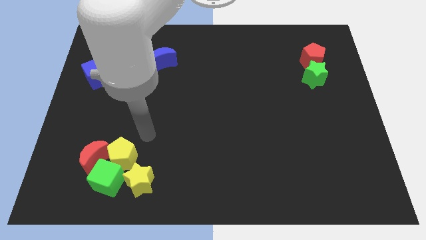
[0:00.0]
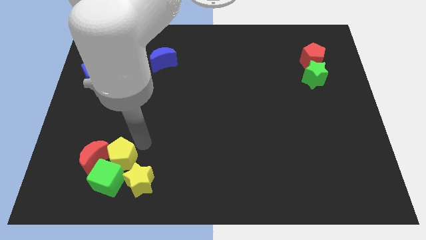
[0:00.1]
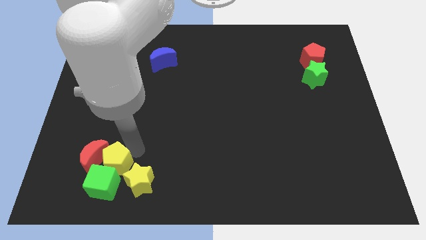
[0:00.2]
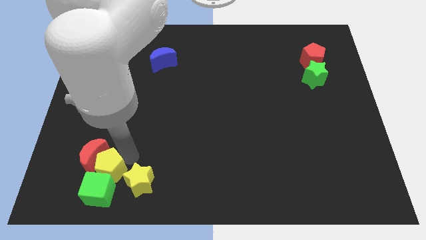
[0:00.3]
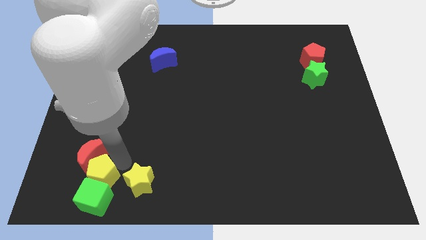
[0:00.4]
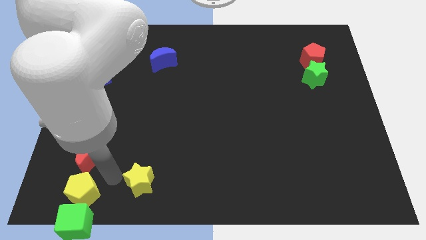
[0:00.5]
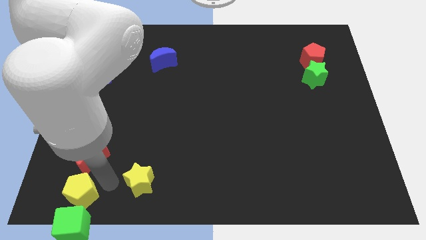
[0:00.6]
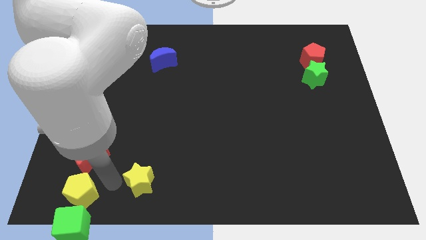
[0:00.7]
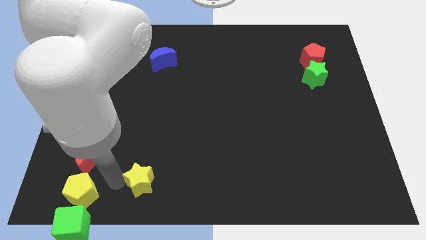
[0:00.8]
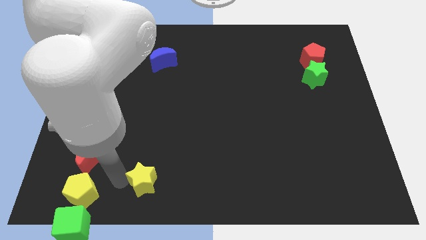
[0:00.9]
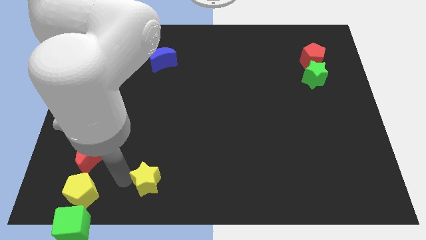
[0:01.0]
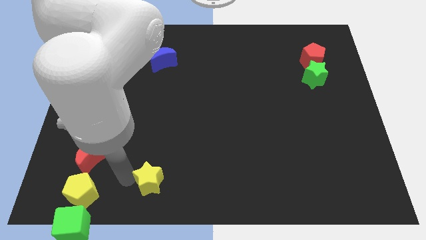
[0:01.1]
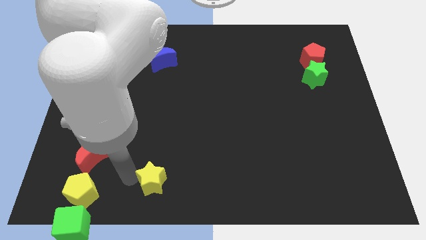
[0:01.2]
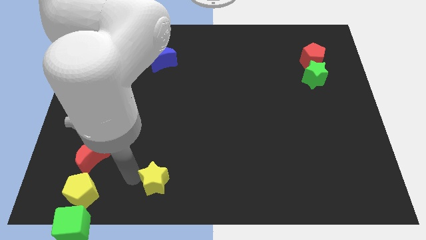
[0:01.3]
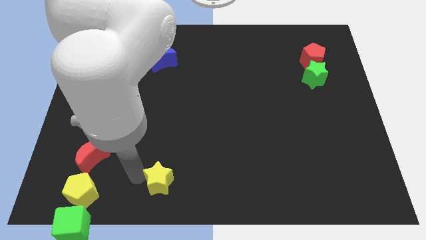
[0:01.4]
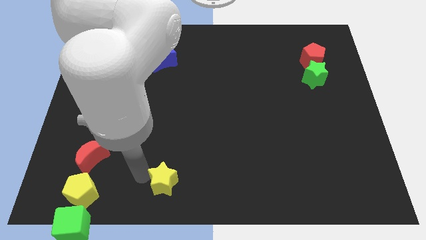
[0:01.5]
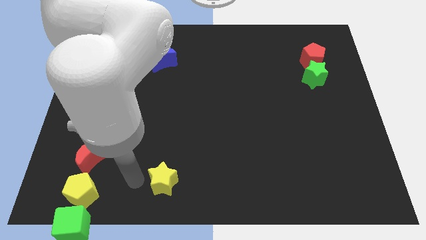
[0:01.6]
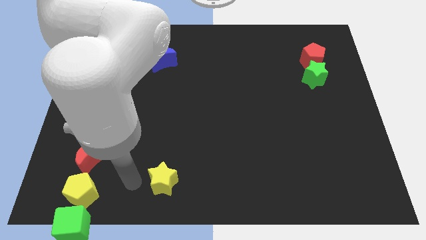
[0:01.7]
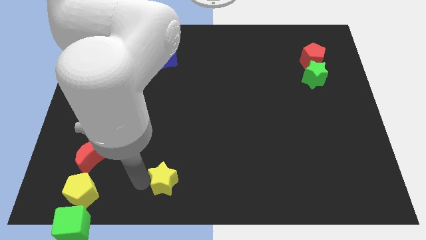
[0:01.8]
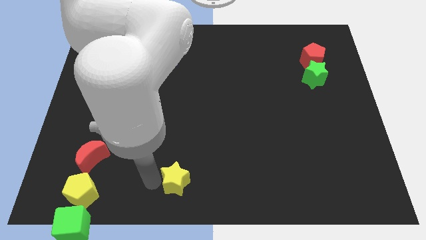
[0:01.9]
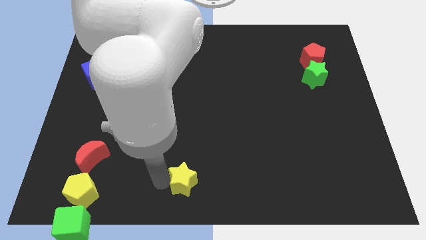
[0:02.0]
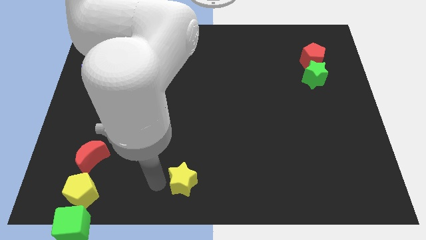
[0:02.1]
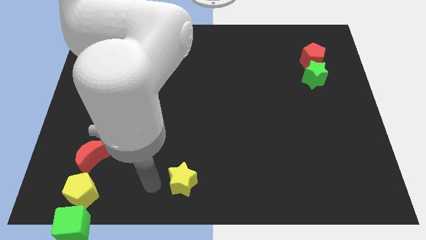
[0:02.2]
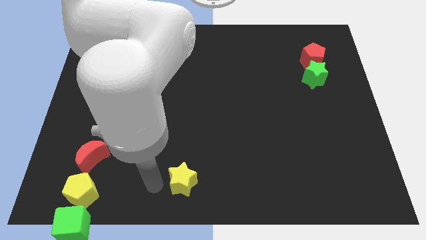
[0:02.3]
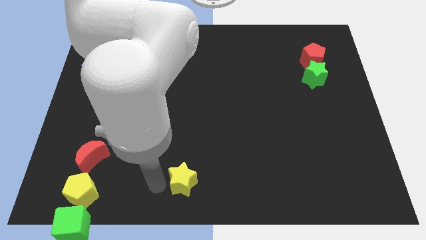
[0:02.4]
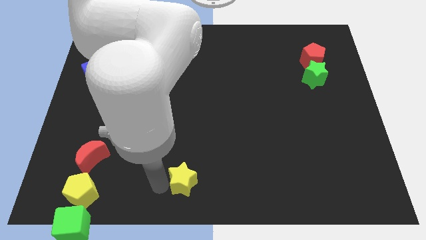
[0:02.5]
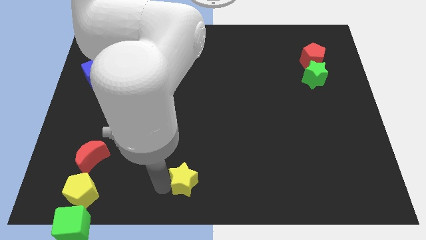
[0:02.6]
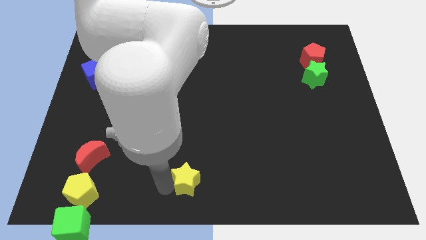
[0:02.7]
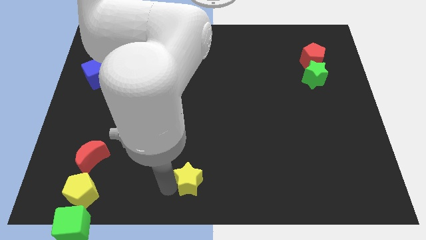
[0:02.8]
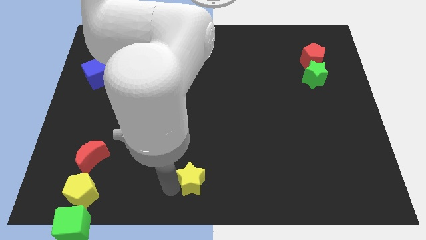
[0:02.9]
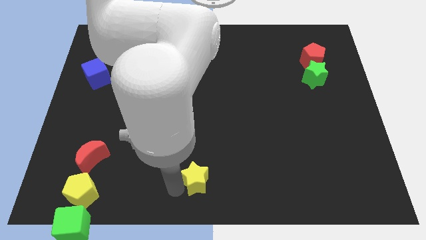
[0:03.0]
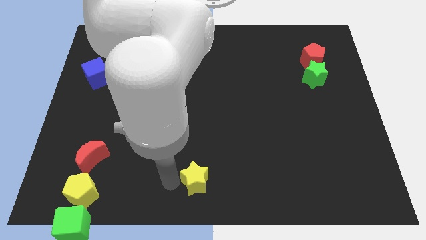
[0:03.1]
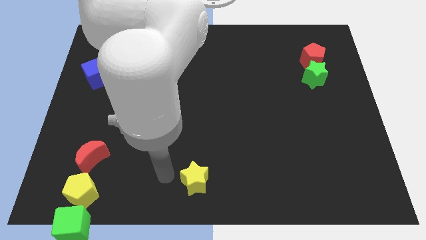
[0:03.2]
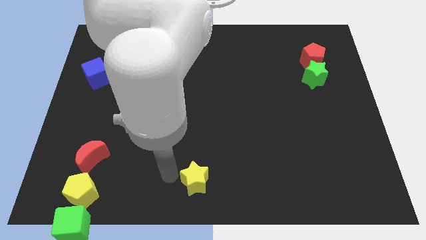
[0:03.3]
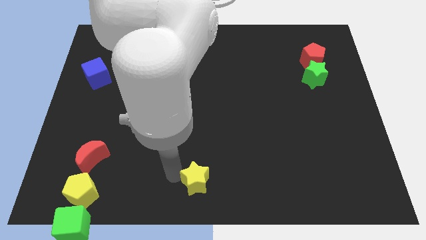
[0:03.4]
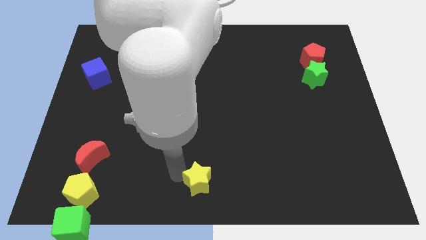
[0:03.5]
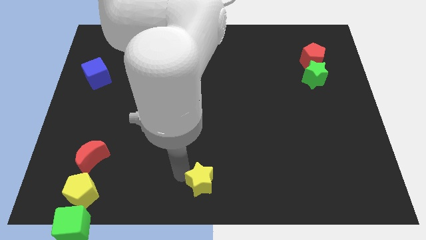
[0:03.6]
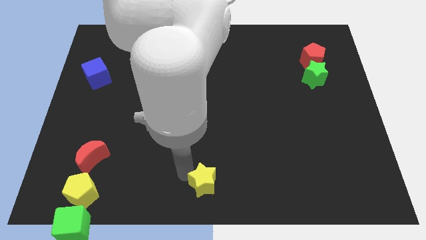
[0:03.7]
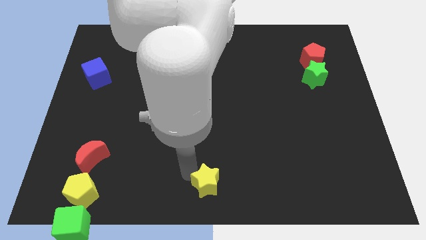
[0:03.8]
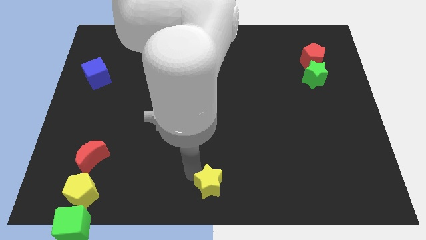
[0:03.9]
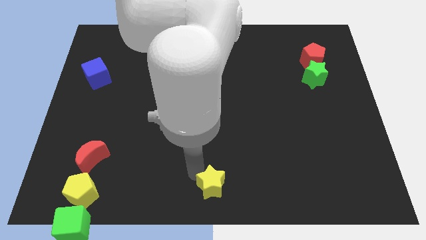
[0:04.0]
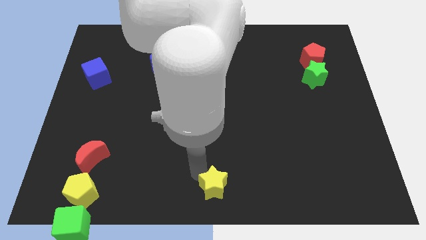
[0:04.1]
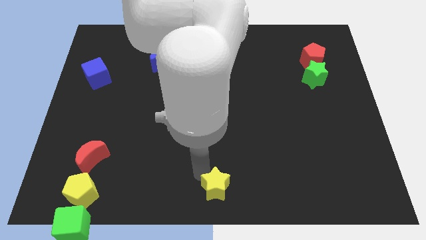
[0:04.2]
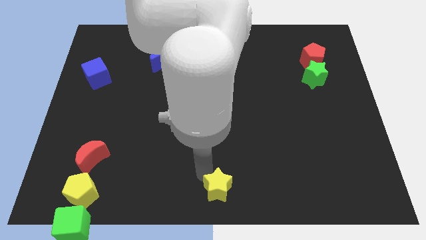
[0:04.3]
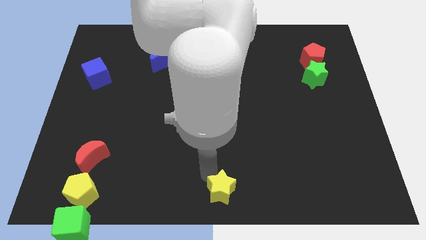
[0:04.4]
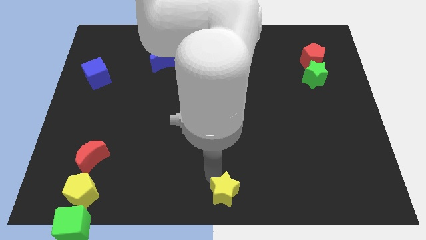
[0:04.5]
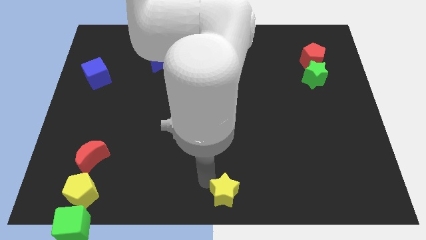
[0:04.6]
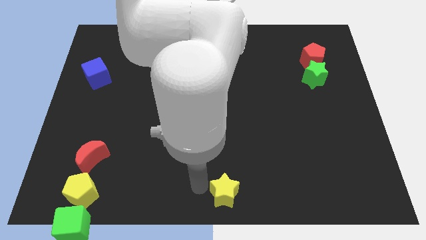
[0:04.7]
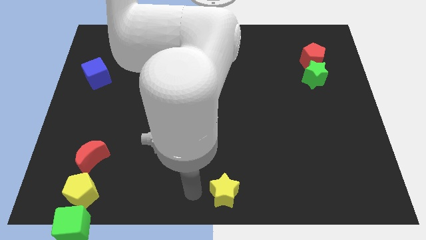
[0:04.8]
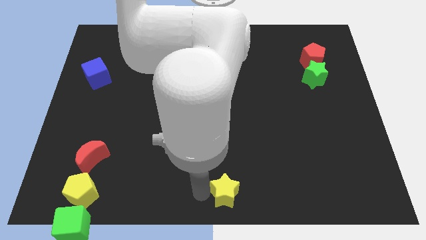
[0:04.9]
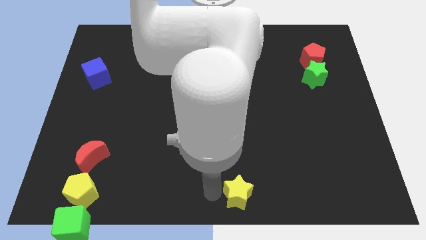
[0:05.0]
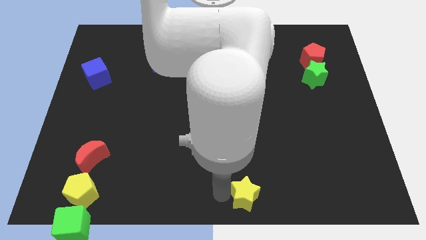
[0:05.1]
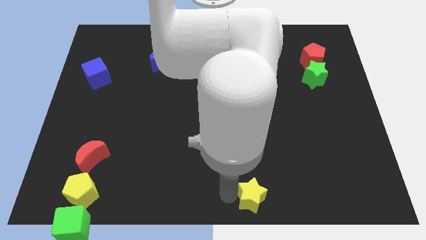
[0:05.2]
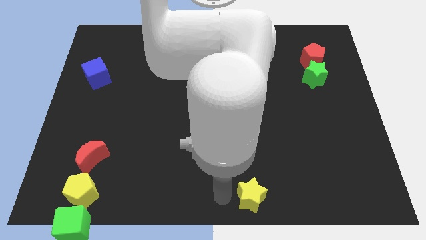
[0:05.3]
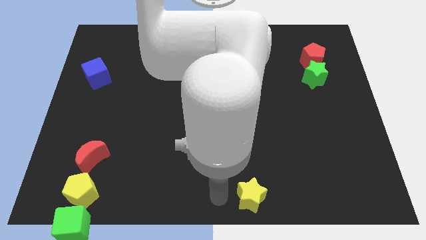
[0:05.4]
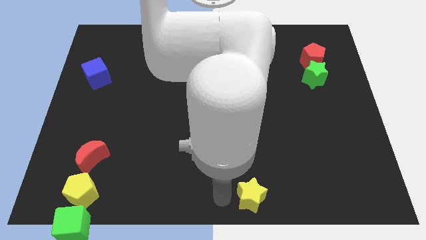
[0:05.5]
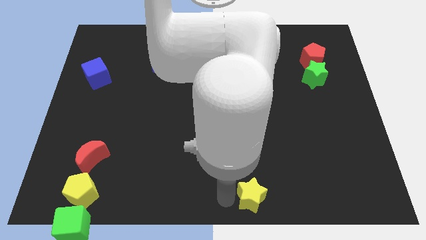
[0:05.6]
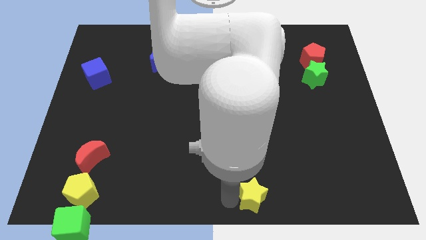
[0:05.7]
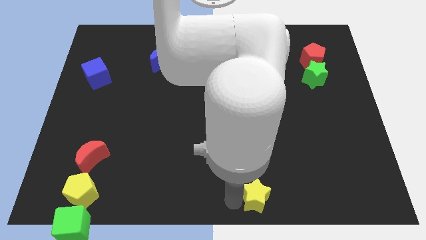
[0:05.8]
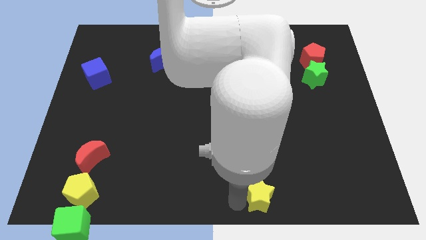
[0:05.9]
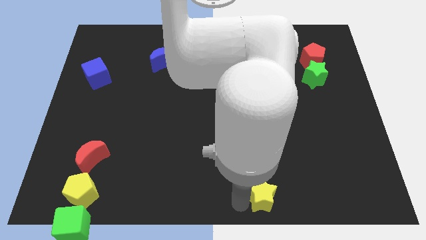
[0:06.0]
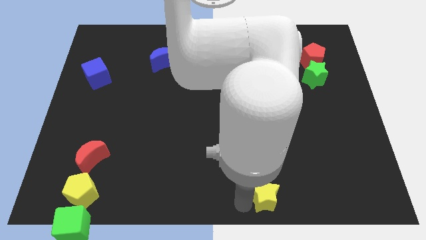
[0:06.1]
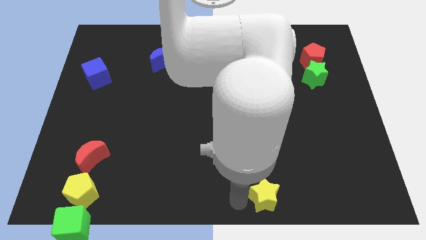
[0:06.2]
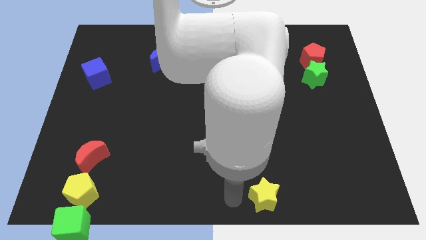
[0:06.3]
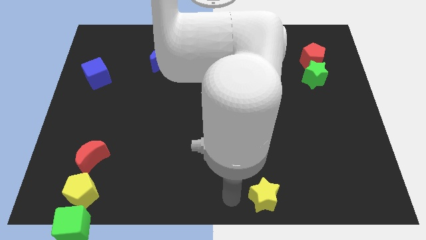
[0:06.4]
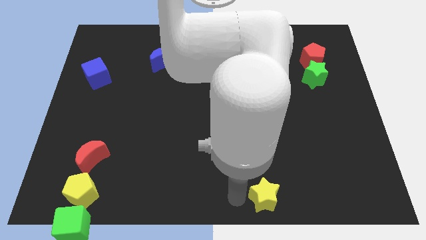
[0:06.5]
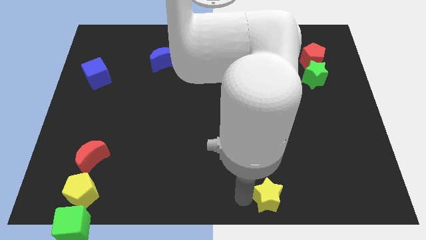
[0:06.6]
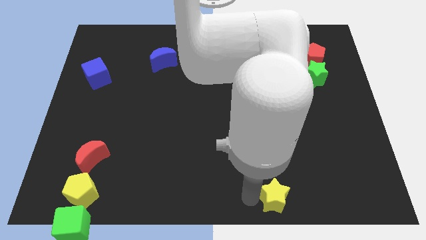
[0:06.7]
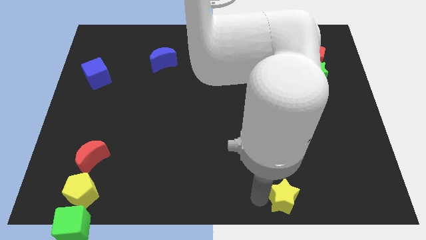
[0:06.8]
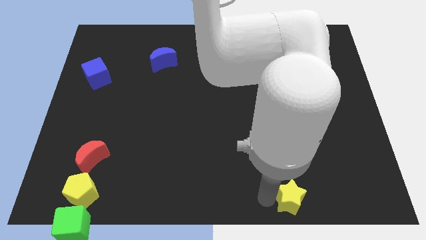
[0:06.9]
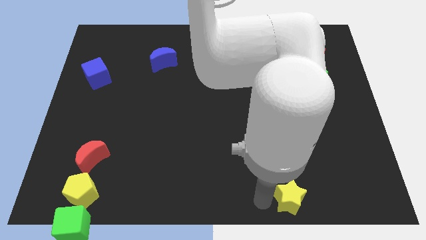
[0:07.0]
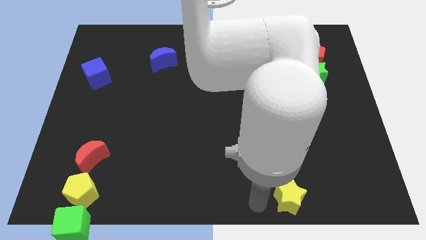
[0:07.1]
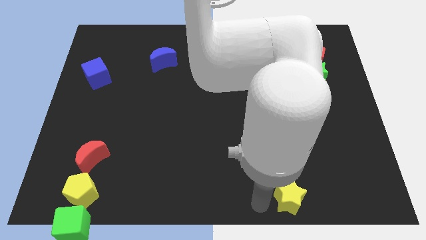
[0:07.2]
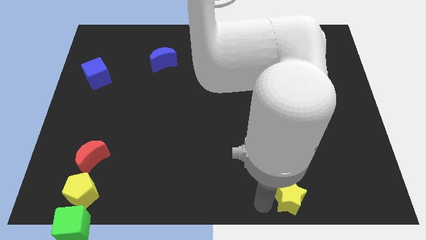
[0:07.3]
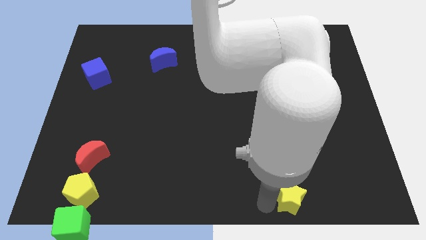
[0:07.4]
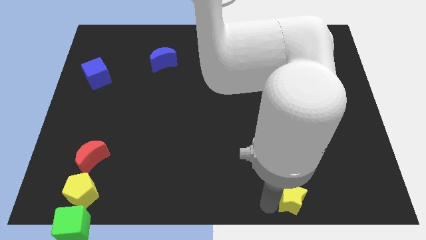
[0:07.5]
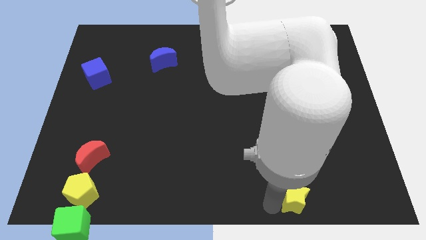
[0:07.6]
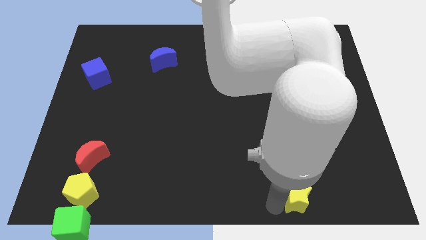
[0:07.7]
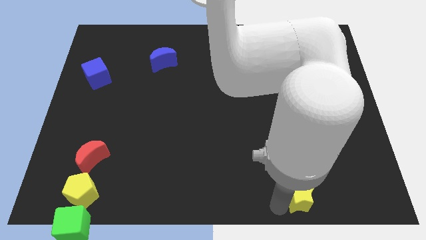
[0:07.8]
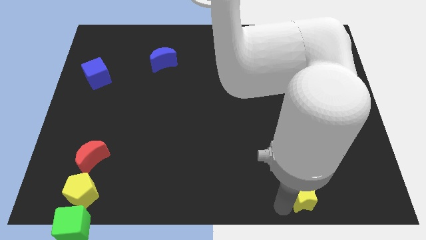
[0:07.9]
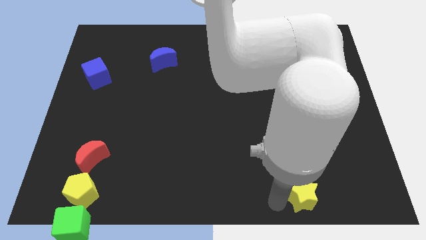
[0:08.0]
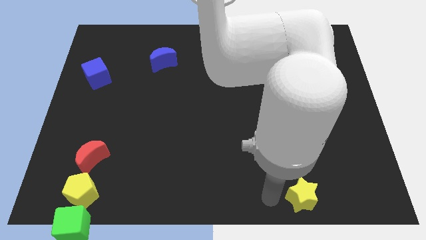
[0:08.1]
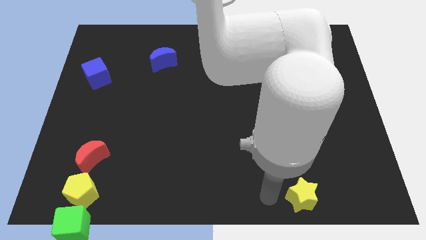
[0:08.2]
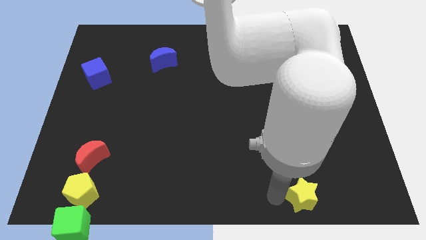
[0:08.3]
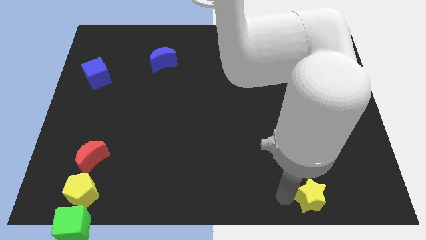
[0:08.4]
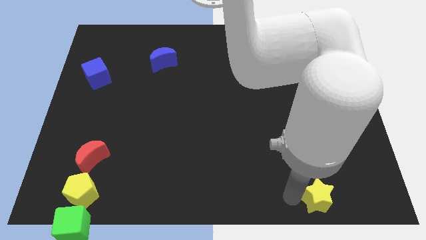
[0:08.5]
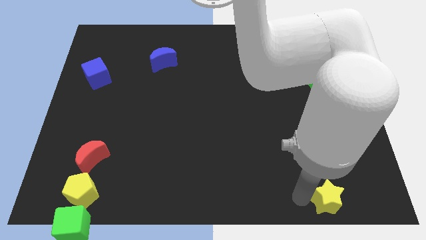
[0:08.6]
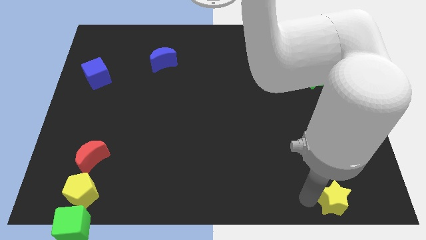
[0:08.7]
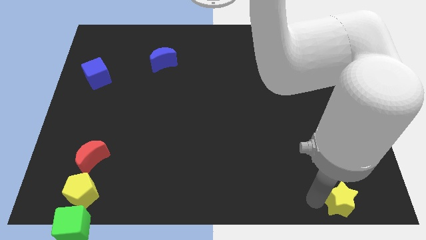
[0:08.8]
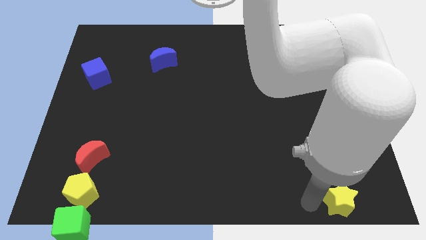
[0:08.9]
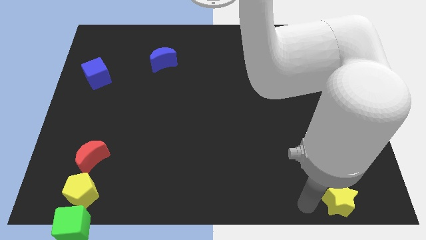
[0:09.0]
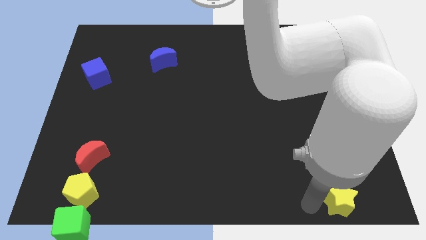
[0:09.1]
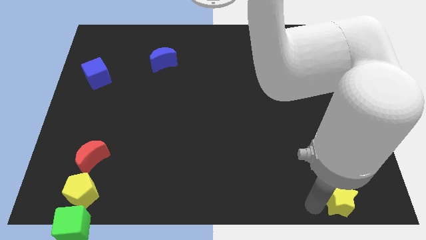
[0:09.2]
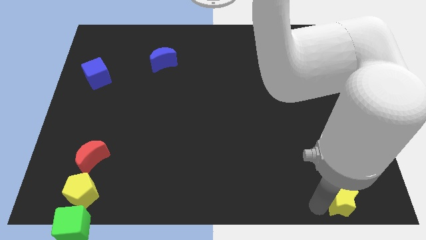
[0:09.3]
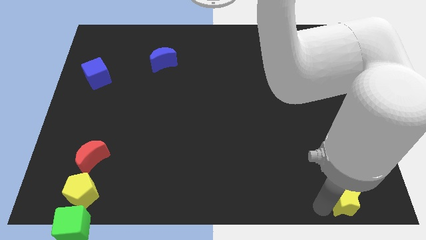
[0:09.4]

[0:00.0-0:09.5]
put the yellow star to the lower right corner
